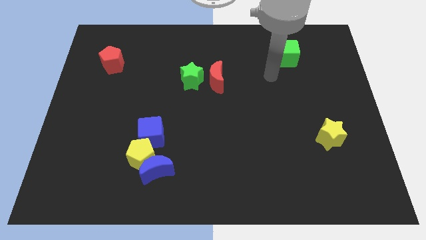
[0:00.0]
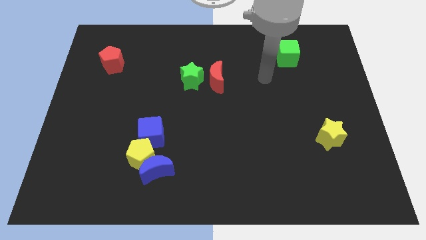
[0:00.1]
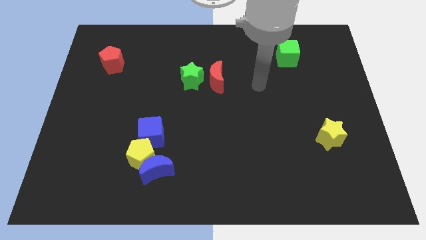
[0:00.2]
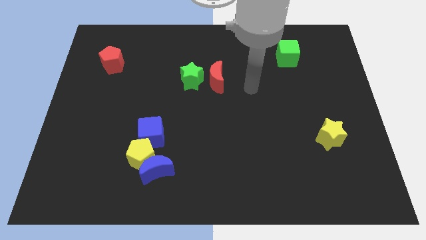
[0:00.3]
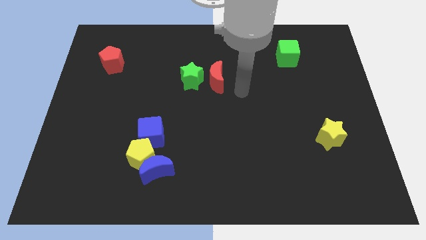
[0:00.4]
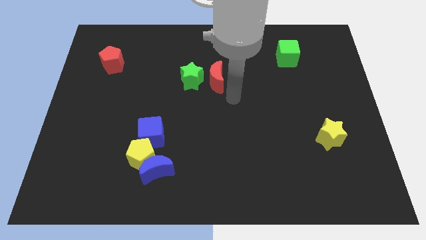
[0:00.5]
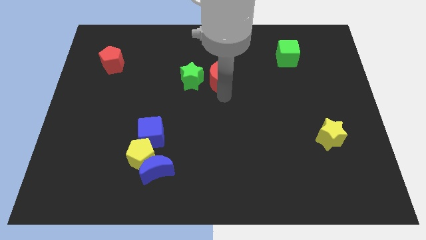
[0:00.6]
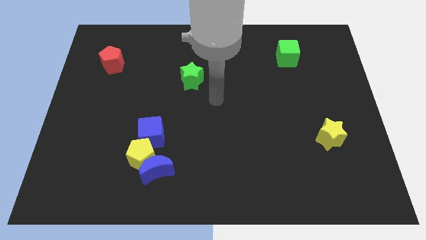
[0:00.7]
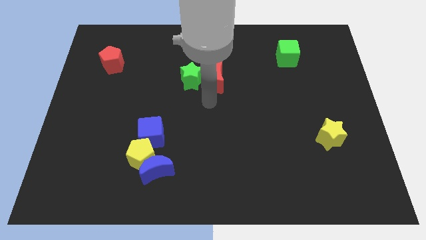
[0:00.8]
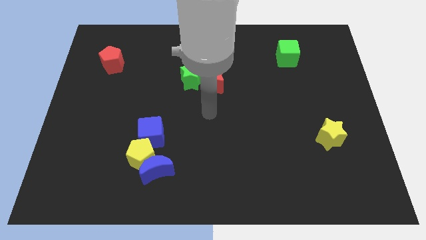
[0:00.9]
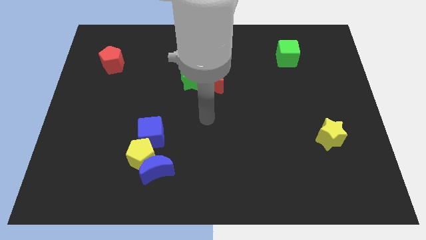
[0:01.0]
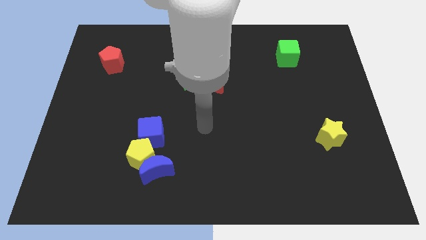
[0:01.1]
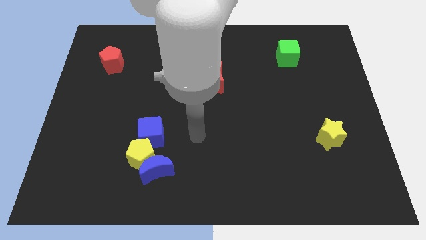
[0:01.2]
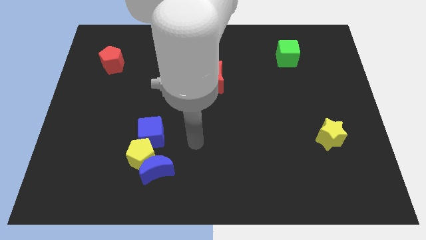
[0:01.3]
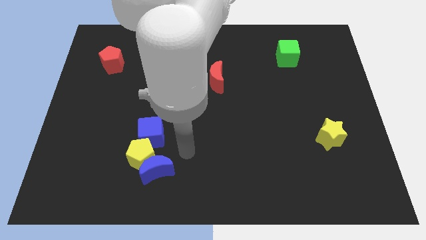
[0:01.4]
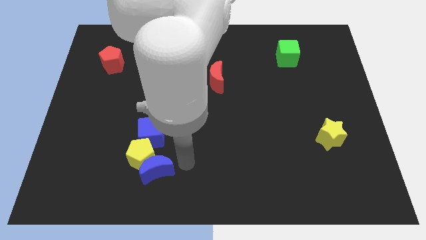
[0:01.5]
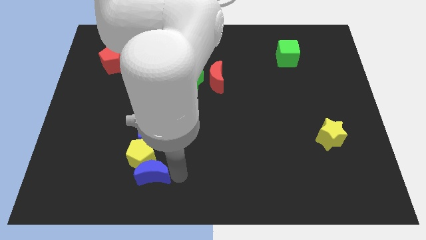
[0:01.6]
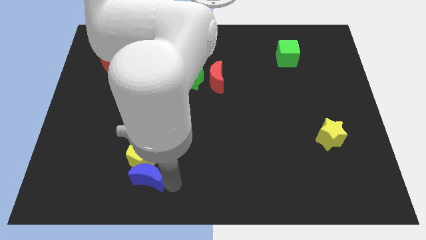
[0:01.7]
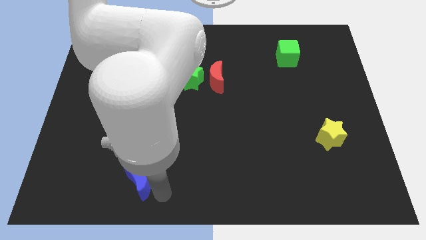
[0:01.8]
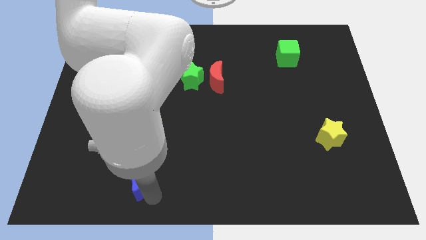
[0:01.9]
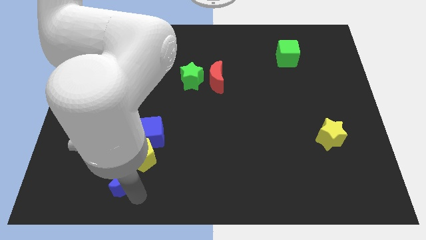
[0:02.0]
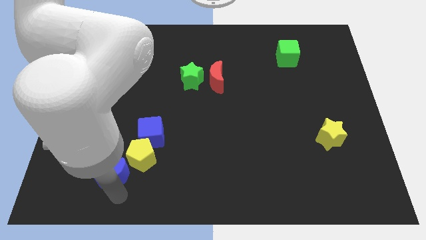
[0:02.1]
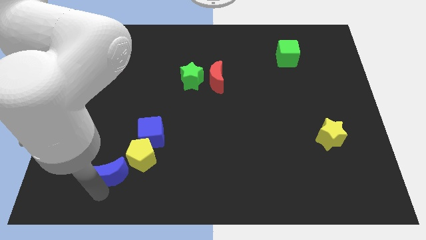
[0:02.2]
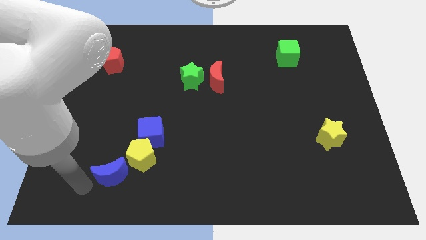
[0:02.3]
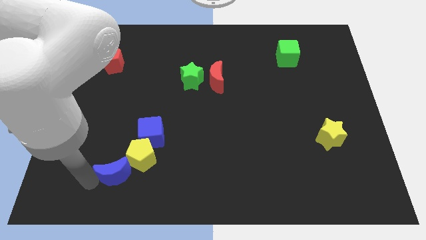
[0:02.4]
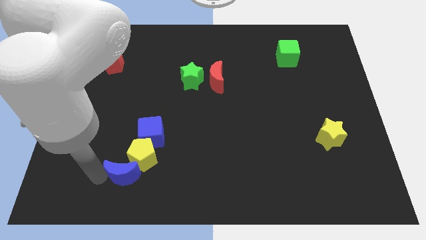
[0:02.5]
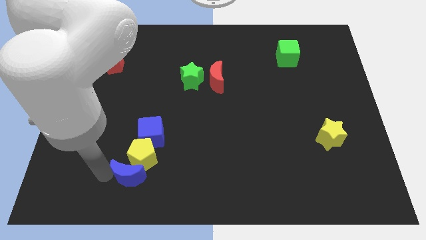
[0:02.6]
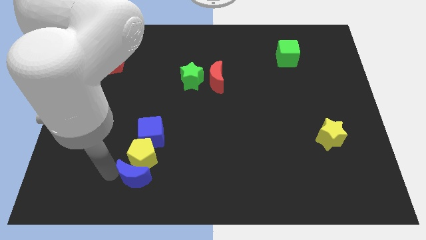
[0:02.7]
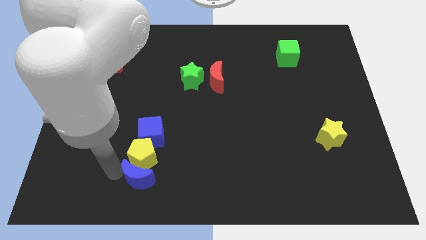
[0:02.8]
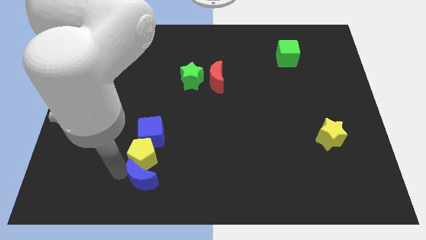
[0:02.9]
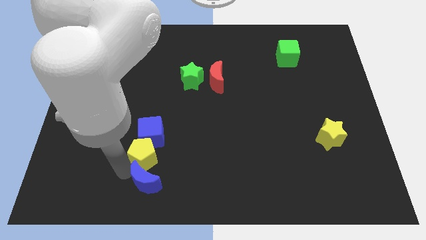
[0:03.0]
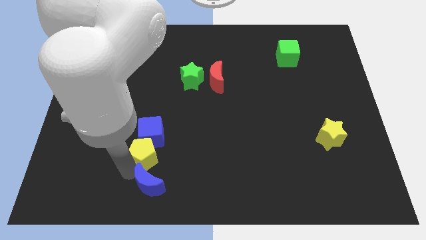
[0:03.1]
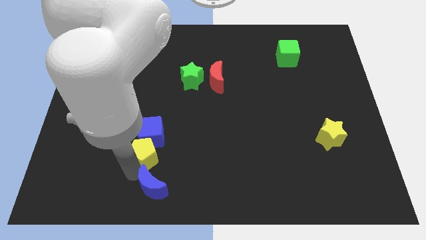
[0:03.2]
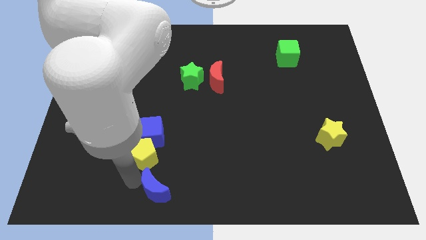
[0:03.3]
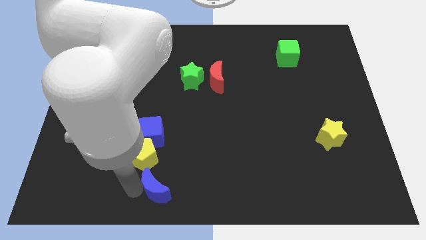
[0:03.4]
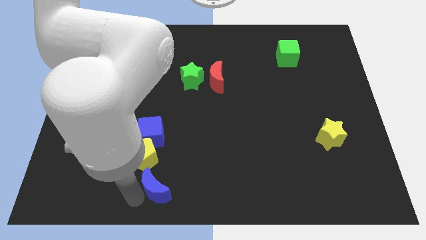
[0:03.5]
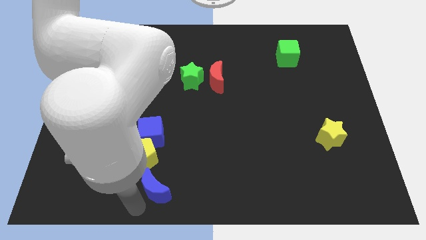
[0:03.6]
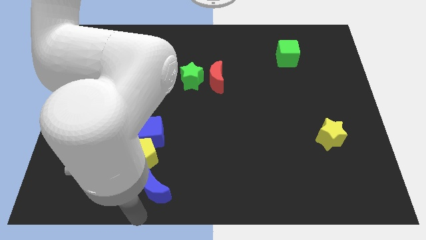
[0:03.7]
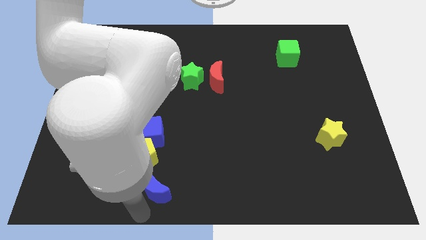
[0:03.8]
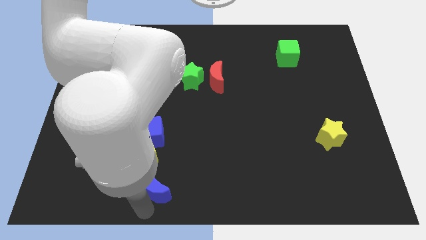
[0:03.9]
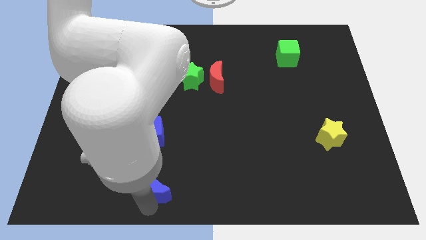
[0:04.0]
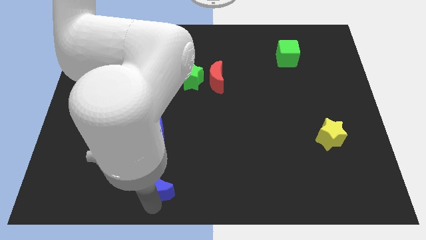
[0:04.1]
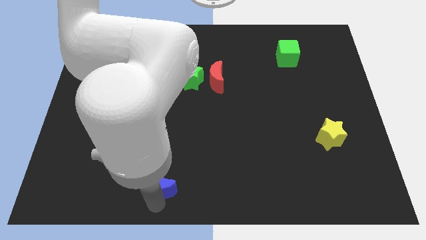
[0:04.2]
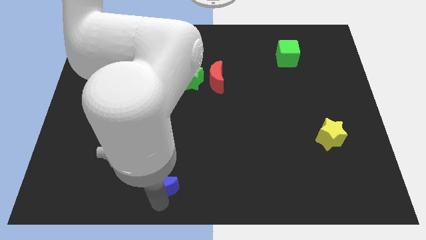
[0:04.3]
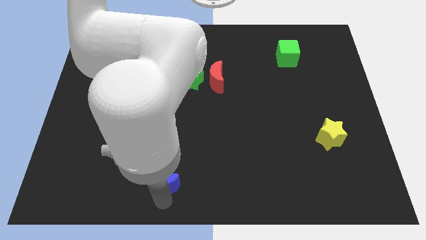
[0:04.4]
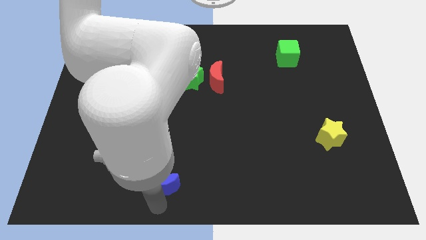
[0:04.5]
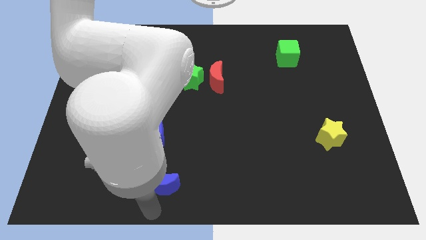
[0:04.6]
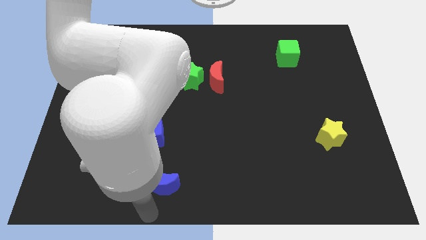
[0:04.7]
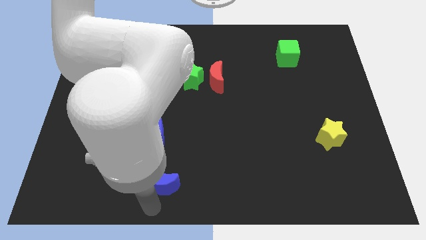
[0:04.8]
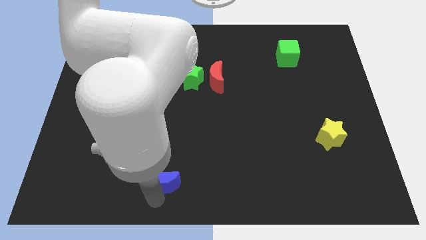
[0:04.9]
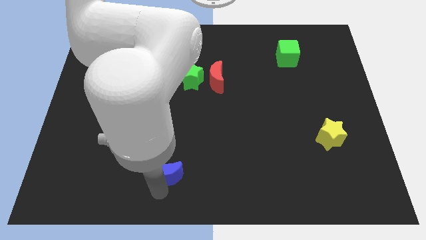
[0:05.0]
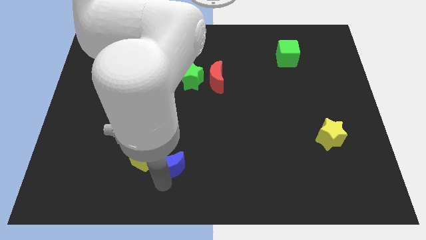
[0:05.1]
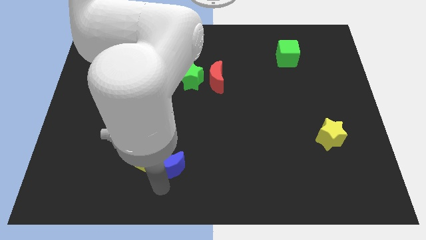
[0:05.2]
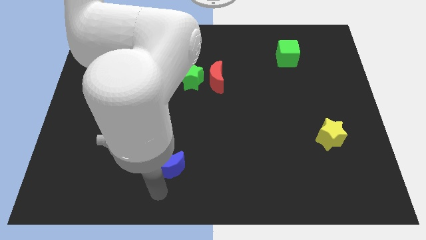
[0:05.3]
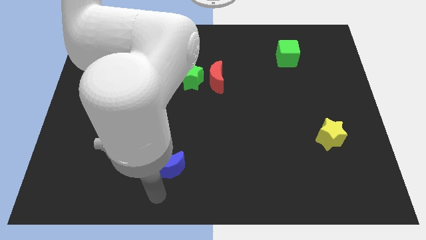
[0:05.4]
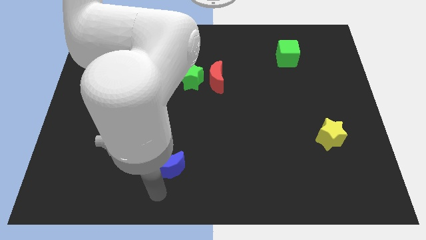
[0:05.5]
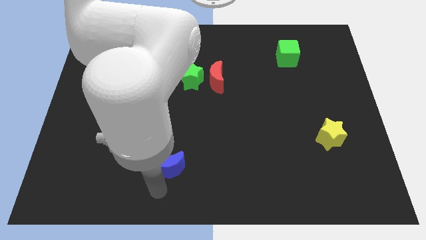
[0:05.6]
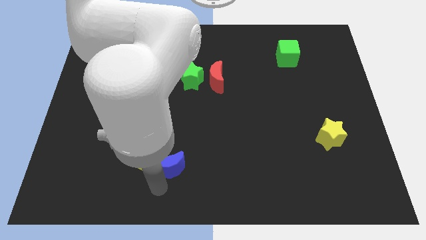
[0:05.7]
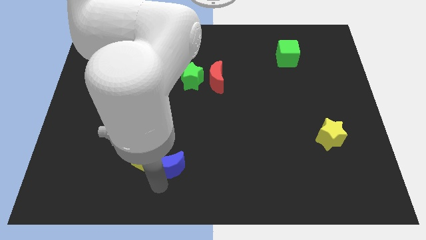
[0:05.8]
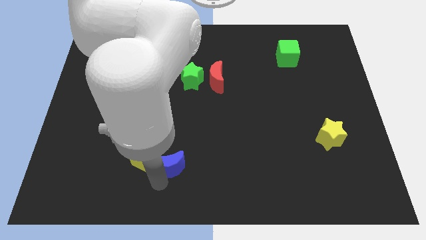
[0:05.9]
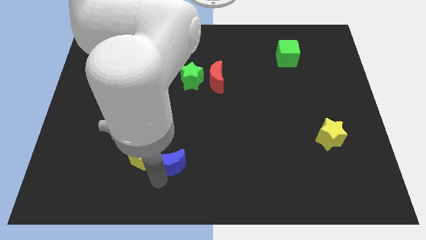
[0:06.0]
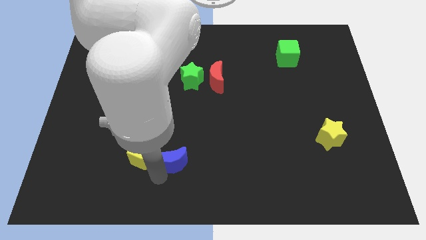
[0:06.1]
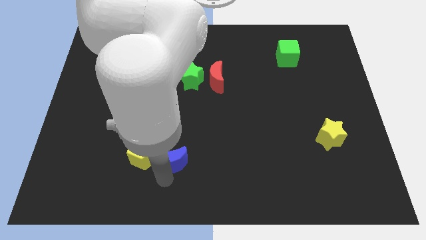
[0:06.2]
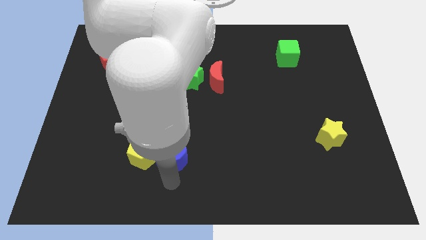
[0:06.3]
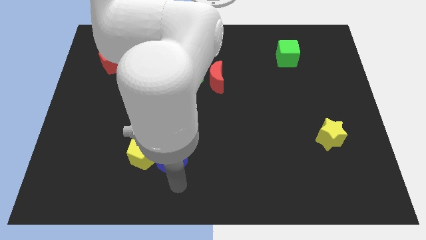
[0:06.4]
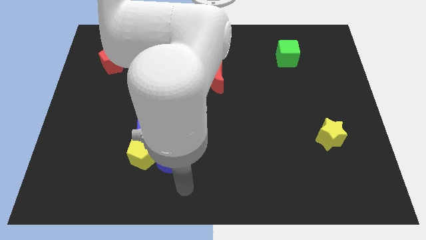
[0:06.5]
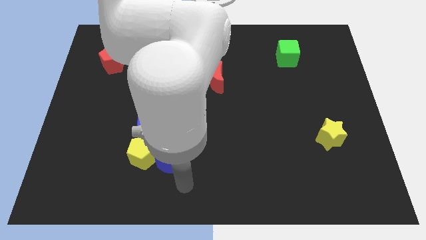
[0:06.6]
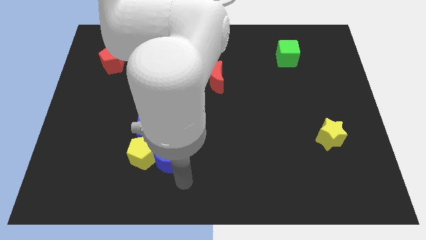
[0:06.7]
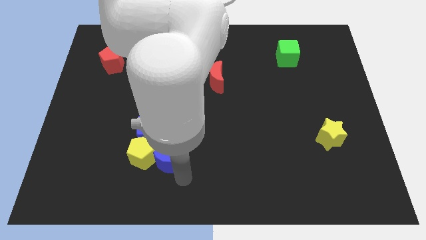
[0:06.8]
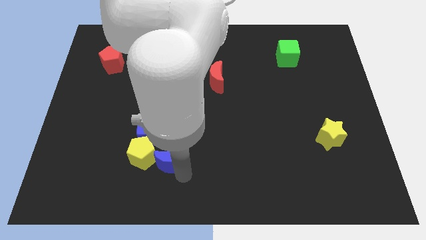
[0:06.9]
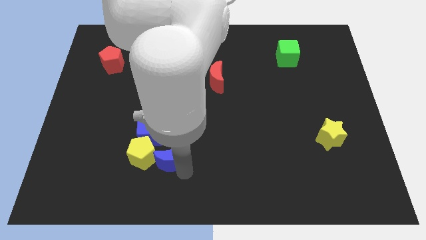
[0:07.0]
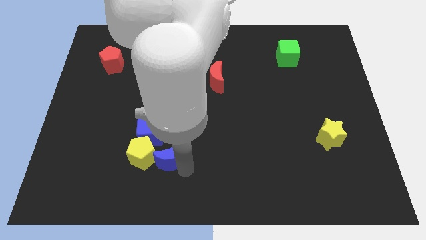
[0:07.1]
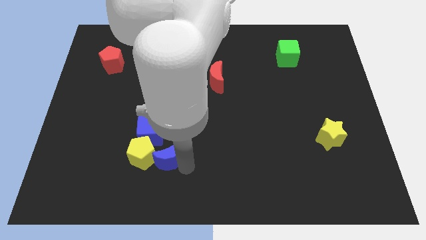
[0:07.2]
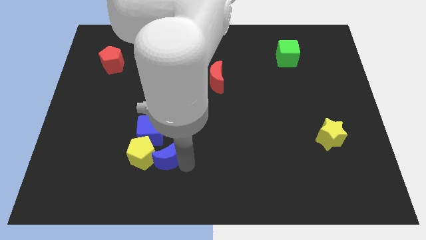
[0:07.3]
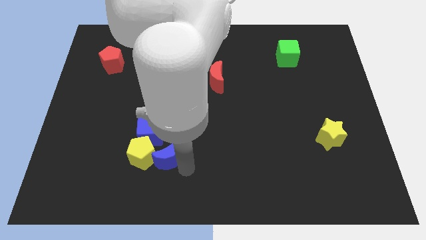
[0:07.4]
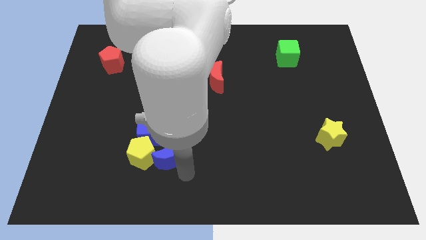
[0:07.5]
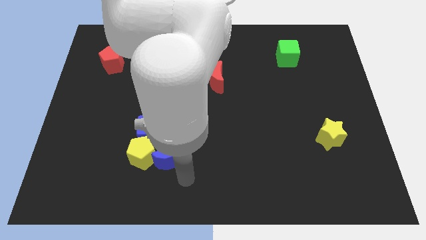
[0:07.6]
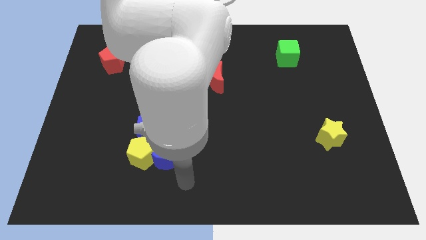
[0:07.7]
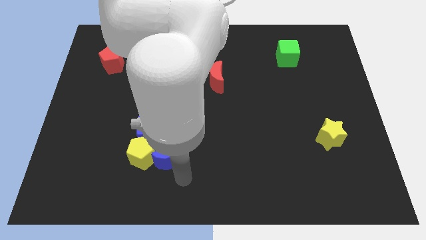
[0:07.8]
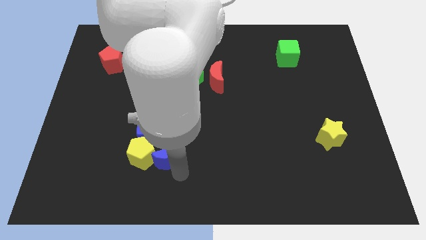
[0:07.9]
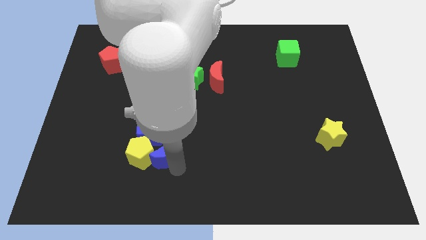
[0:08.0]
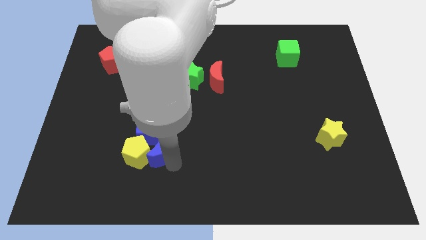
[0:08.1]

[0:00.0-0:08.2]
put the blue moon to the blue cube
